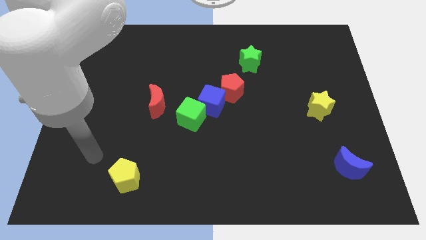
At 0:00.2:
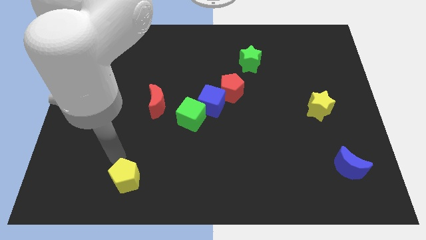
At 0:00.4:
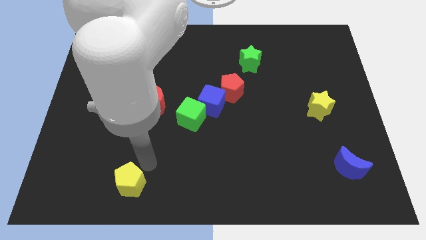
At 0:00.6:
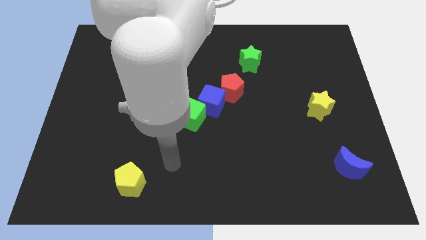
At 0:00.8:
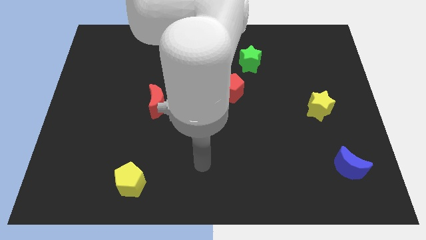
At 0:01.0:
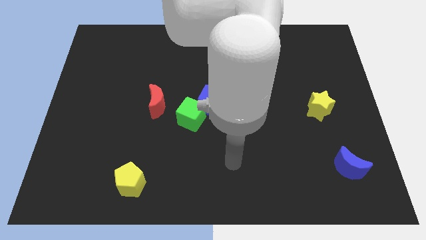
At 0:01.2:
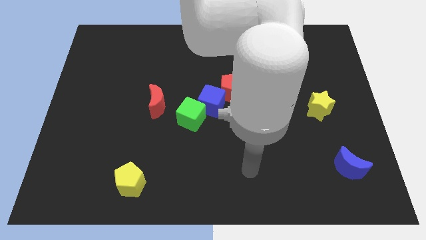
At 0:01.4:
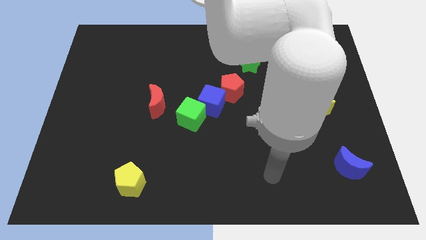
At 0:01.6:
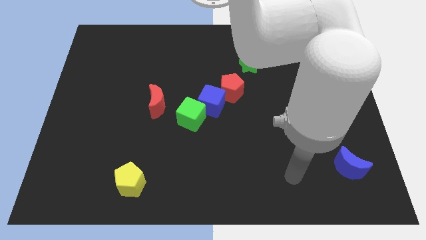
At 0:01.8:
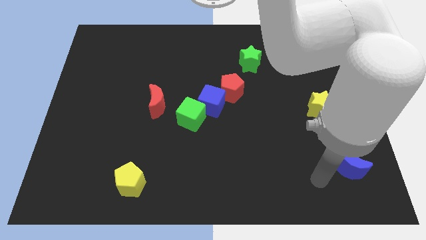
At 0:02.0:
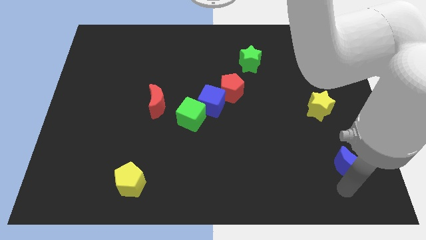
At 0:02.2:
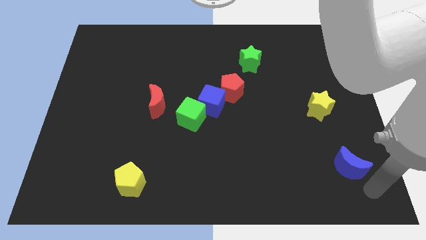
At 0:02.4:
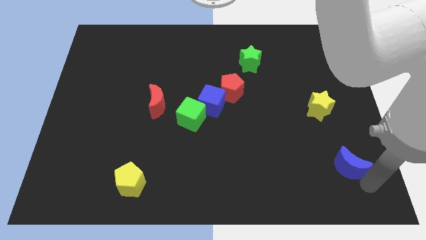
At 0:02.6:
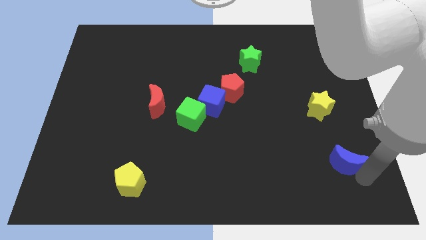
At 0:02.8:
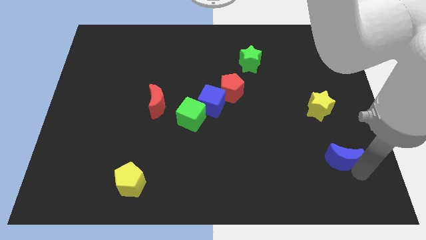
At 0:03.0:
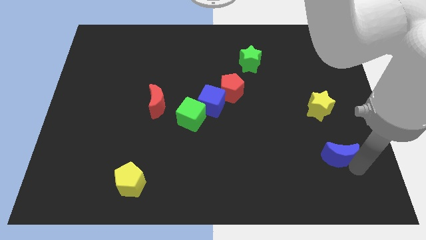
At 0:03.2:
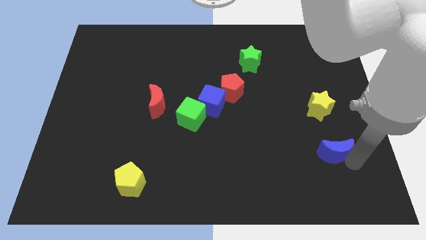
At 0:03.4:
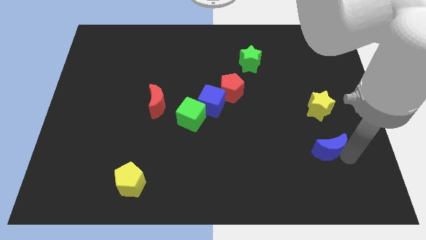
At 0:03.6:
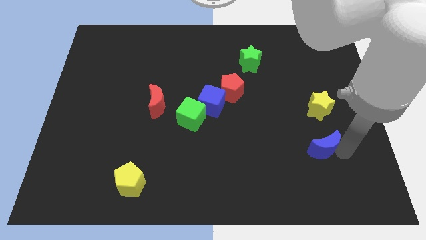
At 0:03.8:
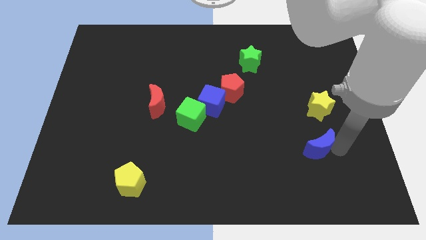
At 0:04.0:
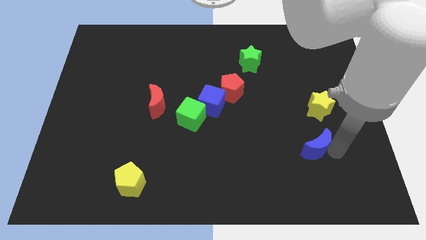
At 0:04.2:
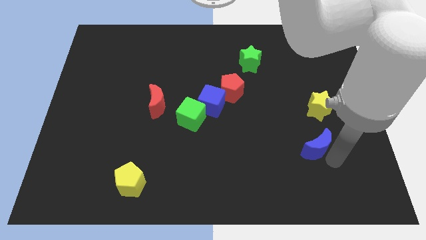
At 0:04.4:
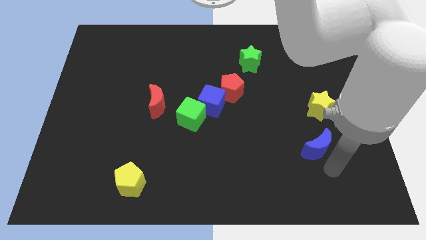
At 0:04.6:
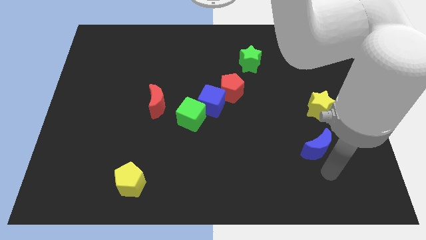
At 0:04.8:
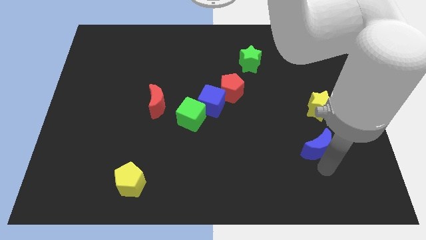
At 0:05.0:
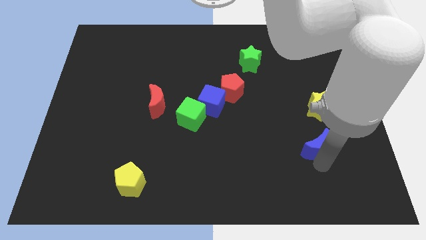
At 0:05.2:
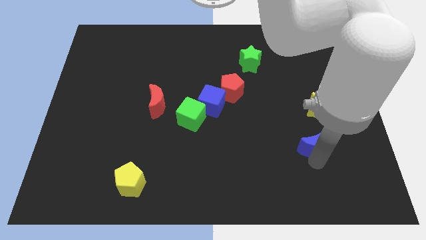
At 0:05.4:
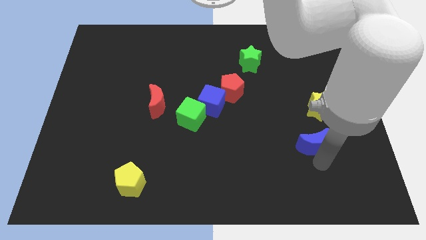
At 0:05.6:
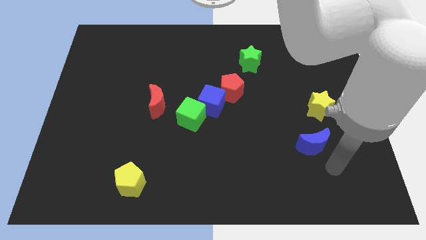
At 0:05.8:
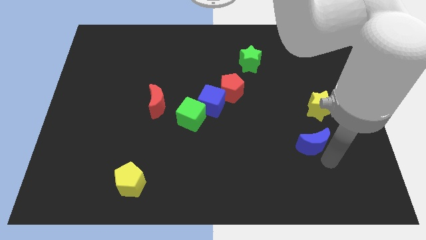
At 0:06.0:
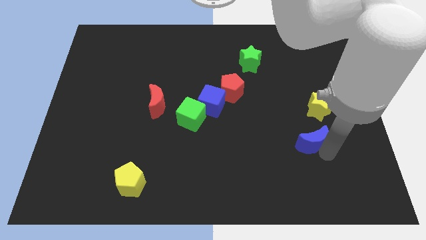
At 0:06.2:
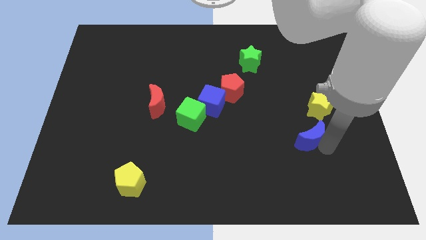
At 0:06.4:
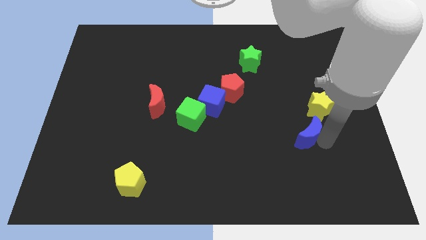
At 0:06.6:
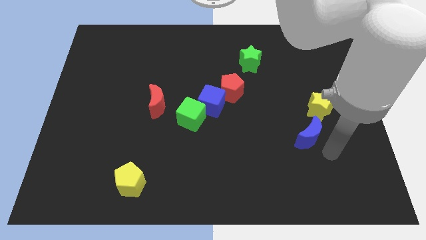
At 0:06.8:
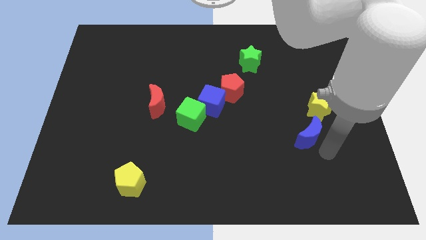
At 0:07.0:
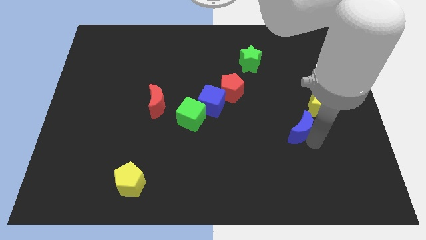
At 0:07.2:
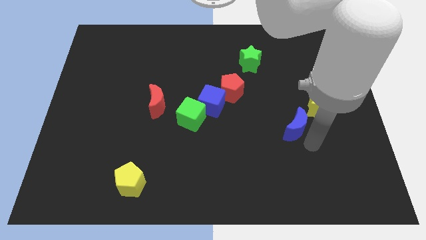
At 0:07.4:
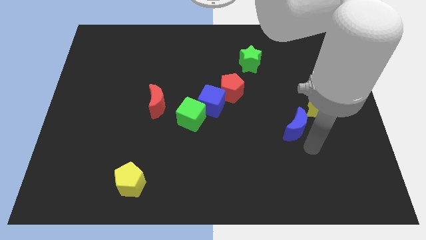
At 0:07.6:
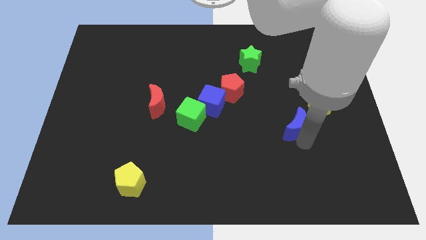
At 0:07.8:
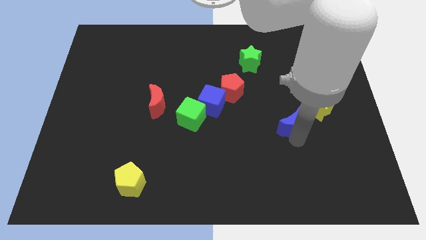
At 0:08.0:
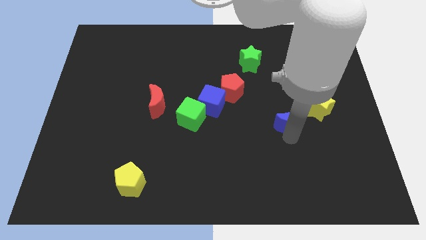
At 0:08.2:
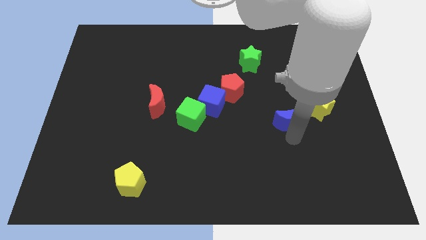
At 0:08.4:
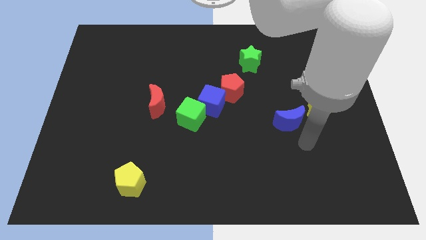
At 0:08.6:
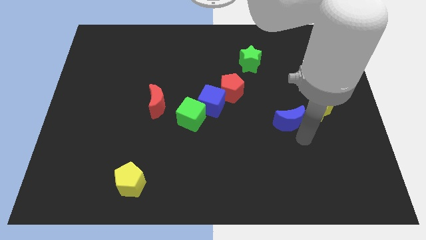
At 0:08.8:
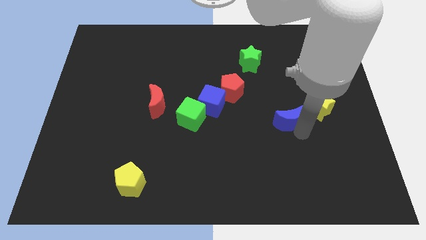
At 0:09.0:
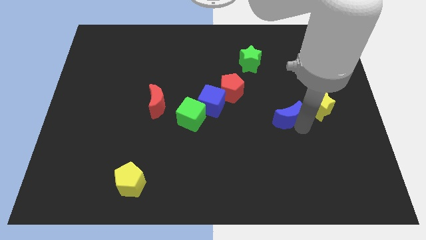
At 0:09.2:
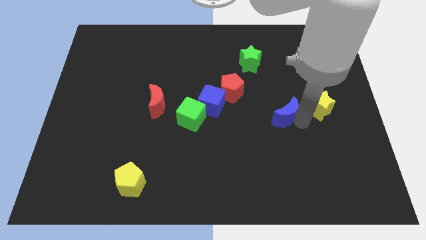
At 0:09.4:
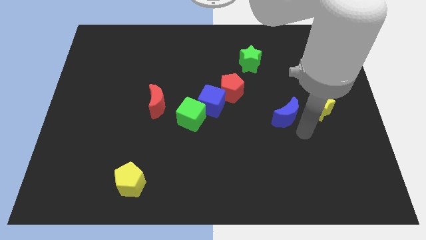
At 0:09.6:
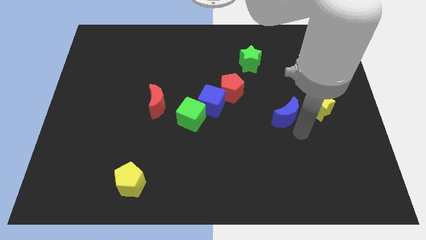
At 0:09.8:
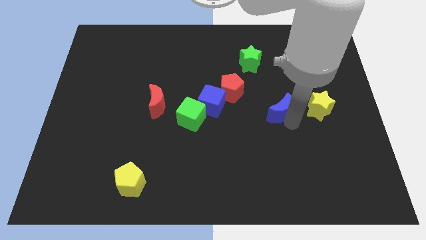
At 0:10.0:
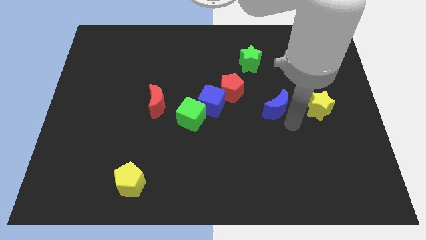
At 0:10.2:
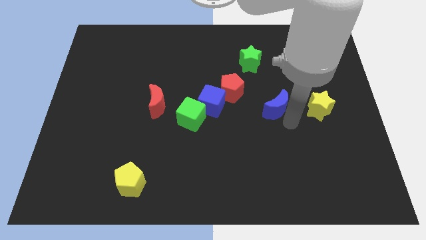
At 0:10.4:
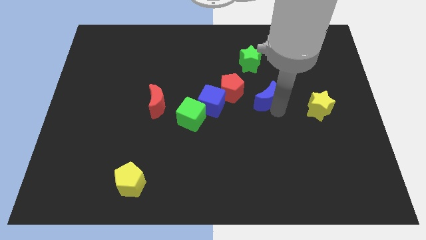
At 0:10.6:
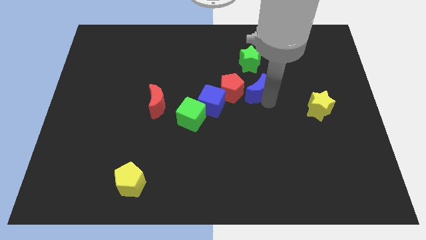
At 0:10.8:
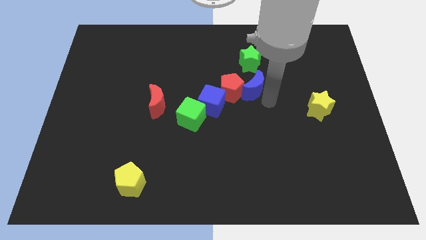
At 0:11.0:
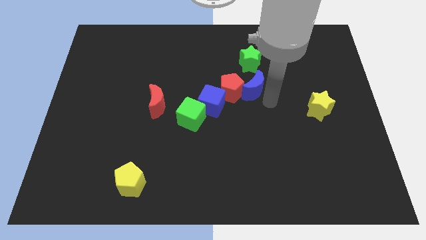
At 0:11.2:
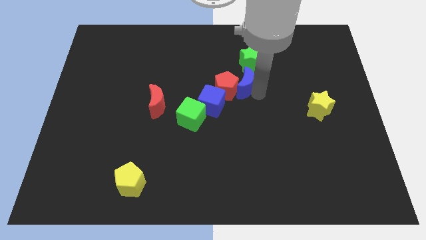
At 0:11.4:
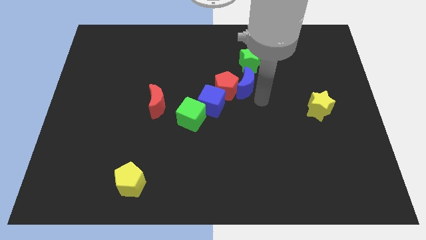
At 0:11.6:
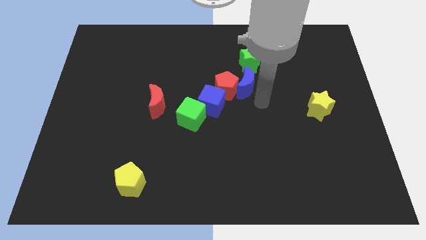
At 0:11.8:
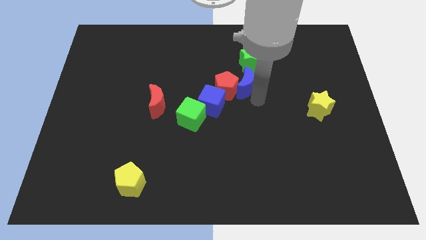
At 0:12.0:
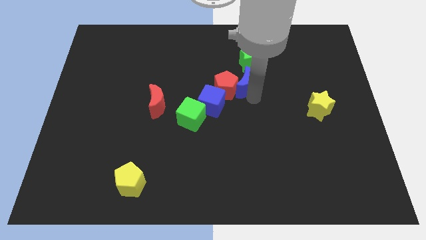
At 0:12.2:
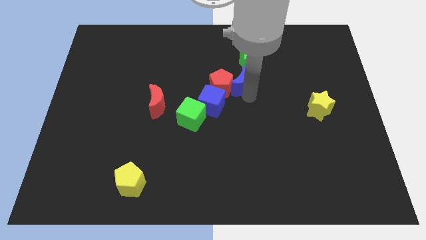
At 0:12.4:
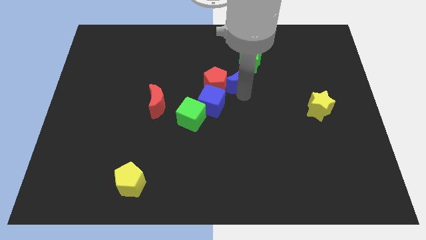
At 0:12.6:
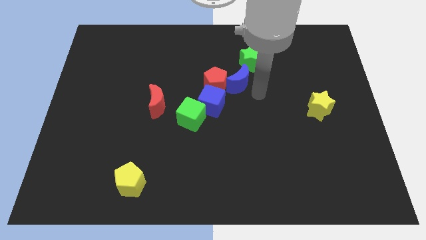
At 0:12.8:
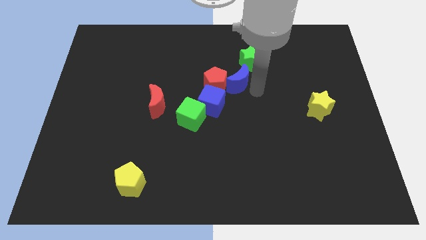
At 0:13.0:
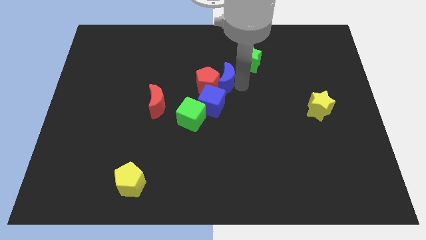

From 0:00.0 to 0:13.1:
push the blue moon above the blue cube

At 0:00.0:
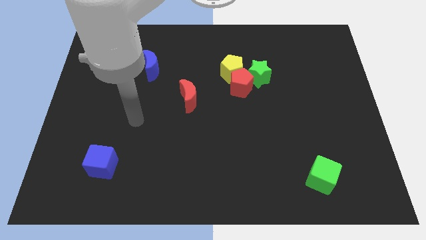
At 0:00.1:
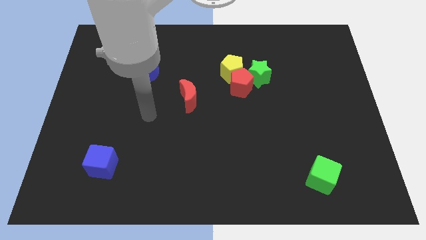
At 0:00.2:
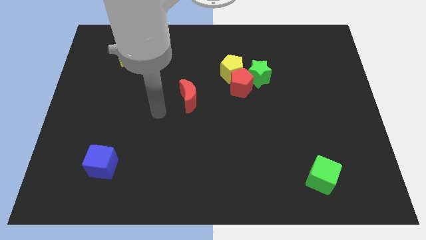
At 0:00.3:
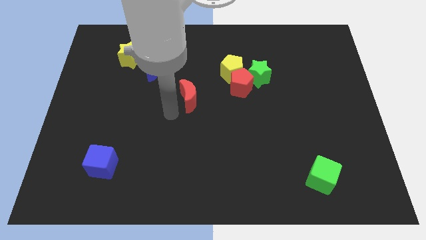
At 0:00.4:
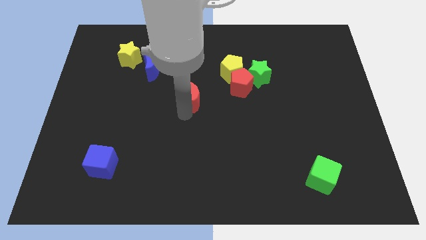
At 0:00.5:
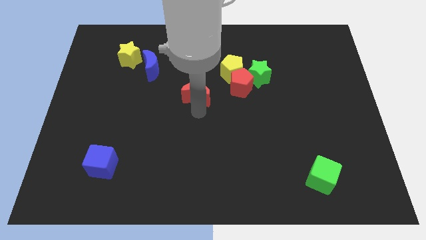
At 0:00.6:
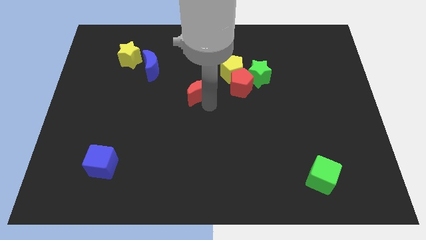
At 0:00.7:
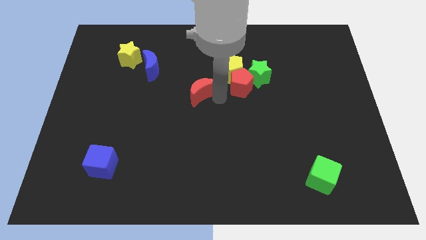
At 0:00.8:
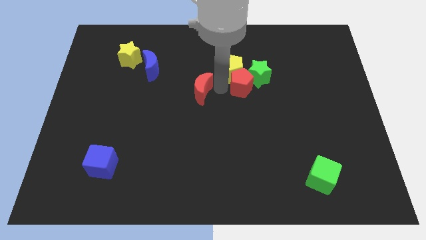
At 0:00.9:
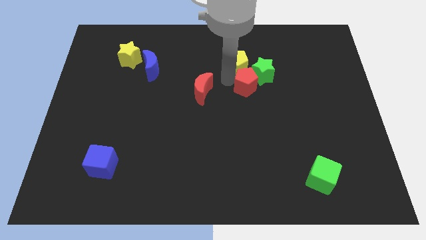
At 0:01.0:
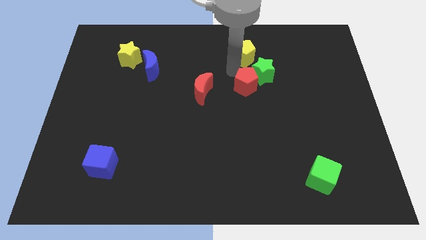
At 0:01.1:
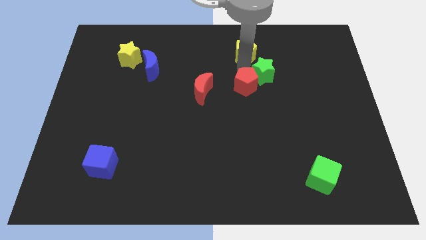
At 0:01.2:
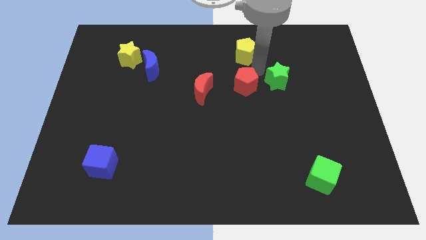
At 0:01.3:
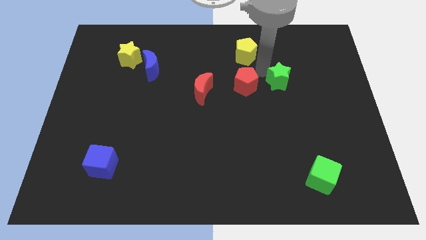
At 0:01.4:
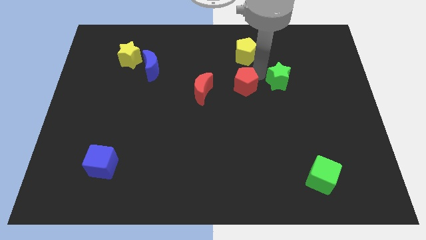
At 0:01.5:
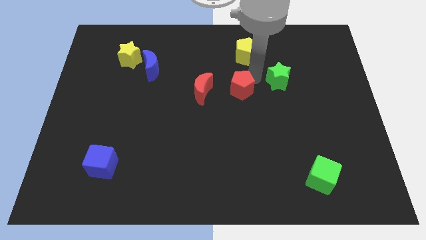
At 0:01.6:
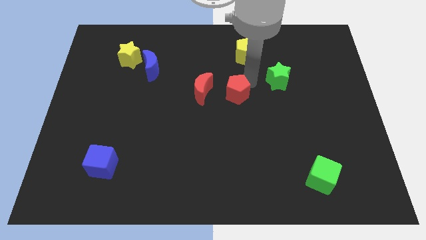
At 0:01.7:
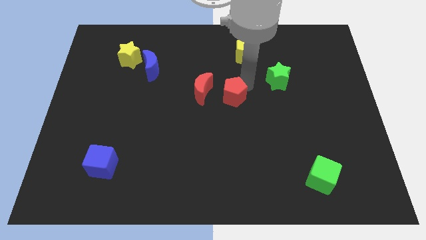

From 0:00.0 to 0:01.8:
push the red pentagon to the bottom right of the red moon
